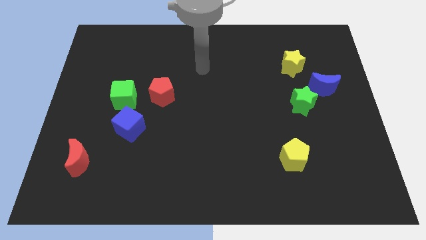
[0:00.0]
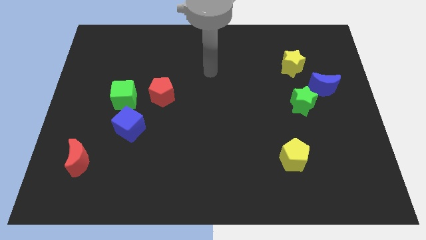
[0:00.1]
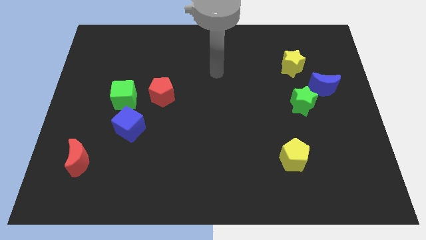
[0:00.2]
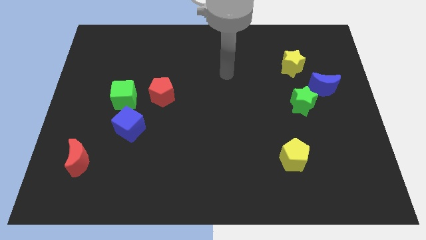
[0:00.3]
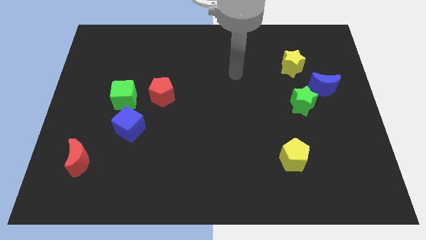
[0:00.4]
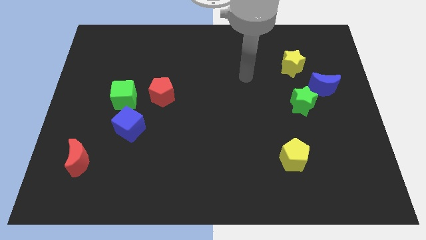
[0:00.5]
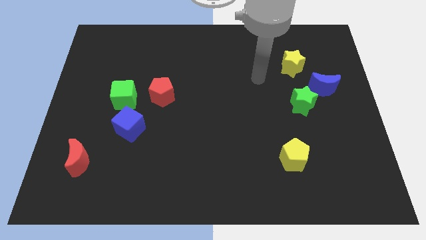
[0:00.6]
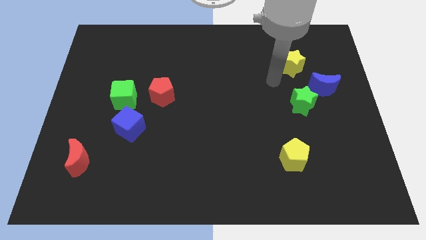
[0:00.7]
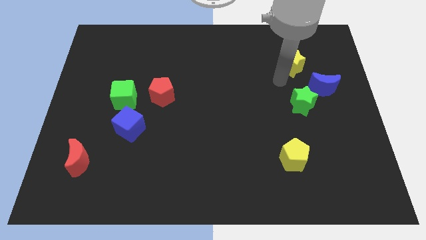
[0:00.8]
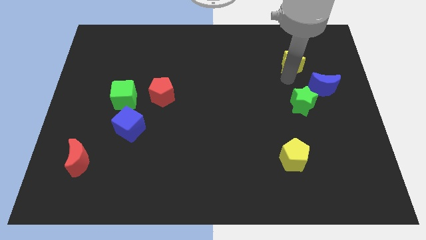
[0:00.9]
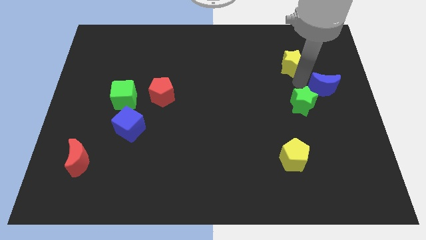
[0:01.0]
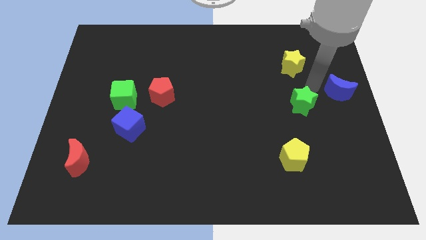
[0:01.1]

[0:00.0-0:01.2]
move the green star away from the blue moon

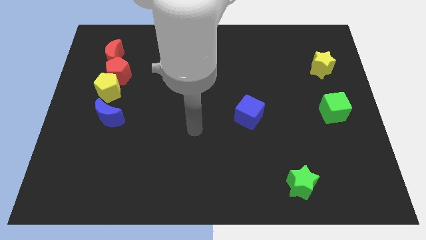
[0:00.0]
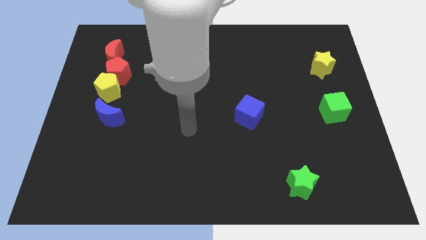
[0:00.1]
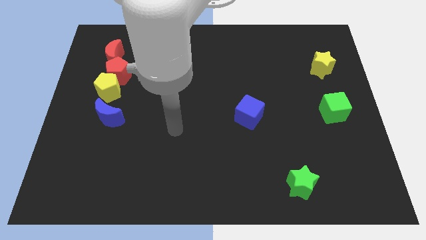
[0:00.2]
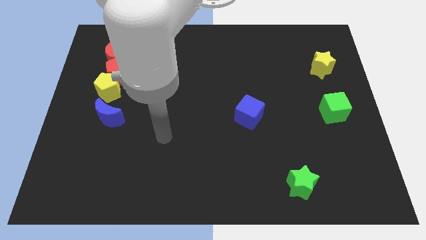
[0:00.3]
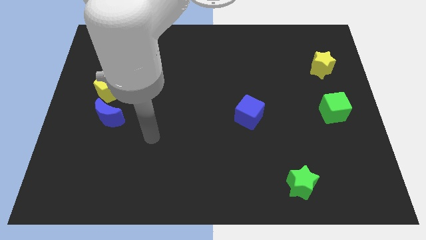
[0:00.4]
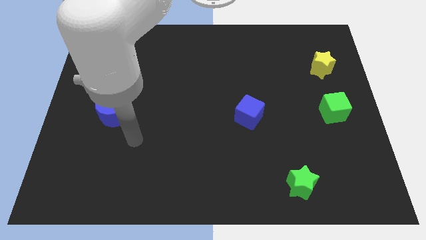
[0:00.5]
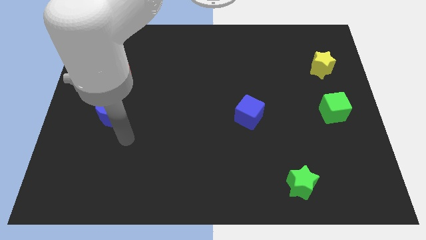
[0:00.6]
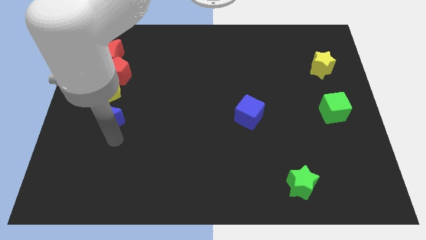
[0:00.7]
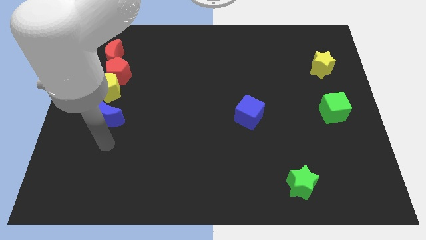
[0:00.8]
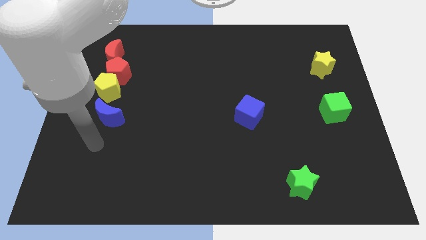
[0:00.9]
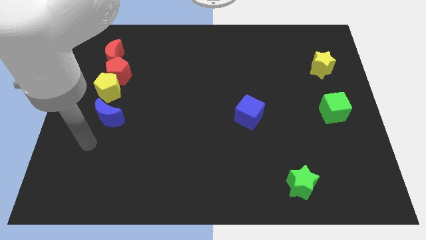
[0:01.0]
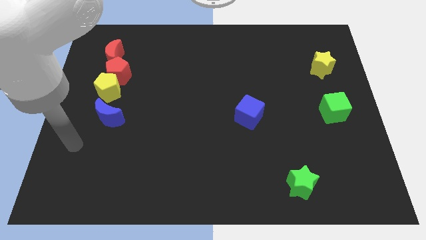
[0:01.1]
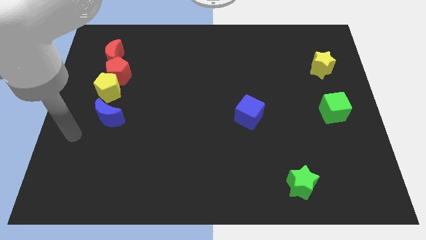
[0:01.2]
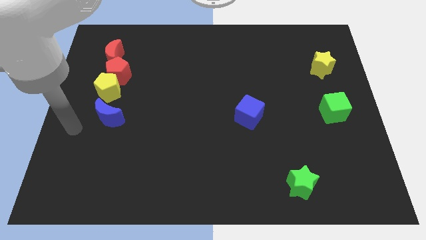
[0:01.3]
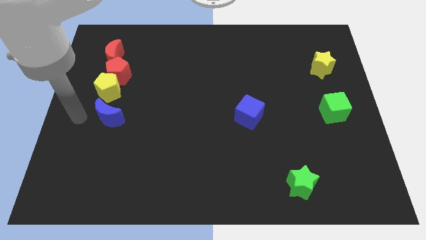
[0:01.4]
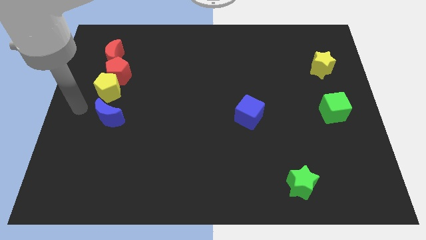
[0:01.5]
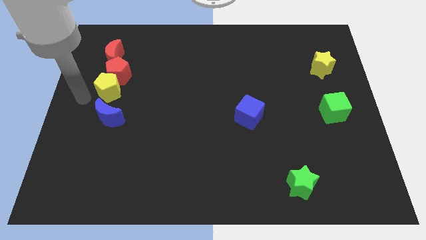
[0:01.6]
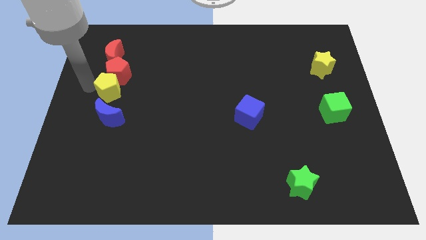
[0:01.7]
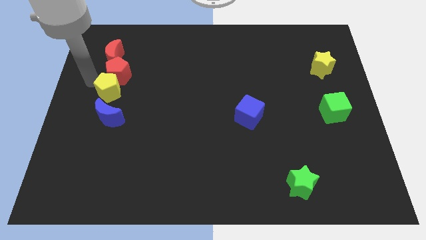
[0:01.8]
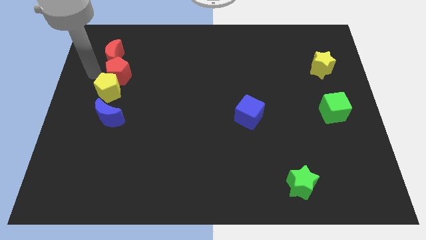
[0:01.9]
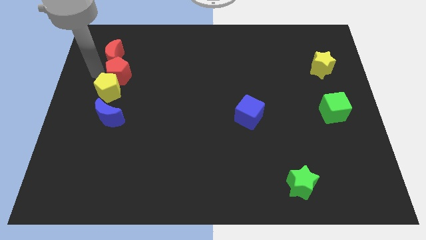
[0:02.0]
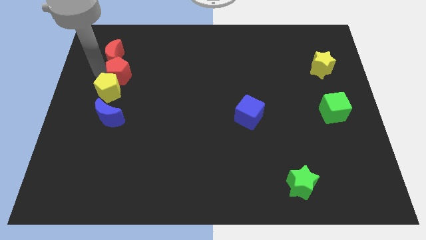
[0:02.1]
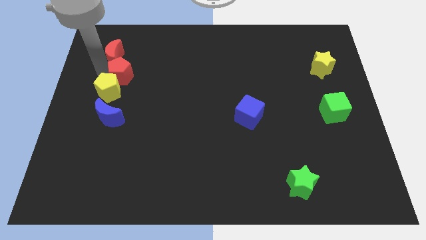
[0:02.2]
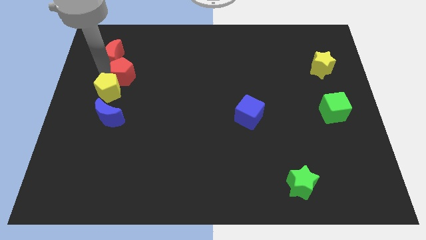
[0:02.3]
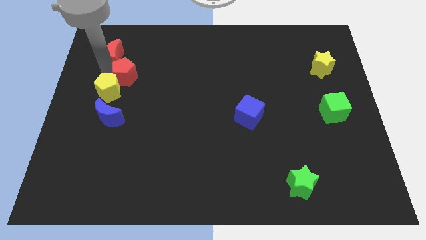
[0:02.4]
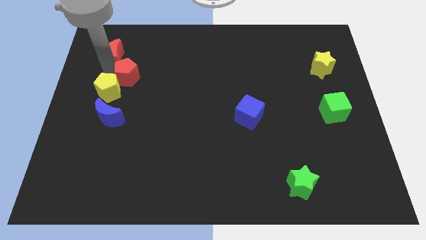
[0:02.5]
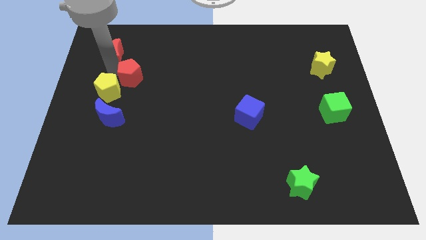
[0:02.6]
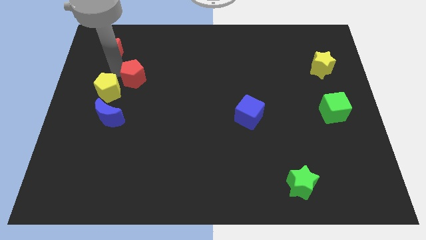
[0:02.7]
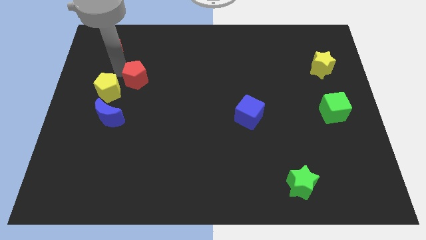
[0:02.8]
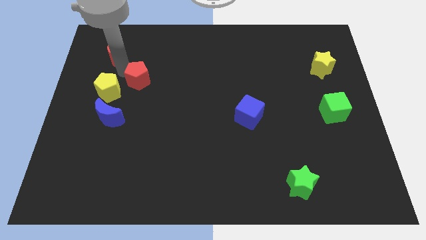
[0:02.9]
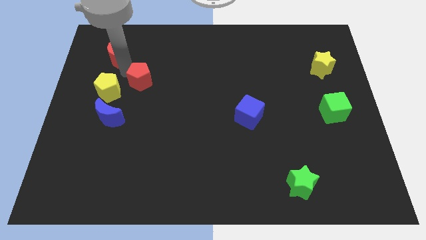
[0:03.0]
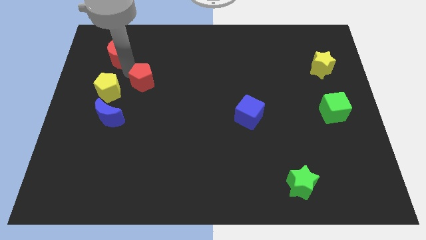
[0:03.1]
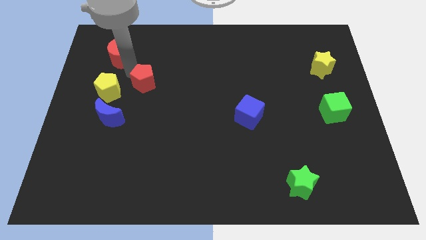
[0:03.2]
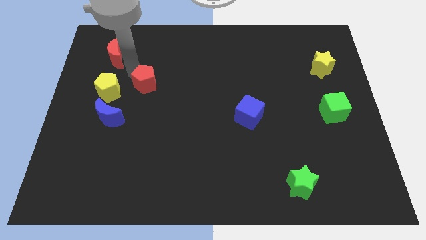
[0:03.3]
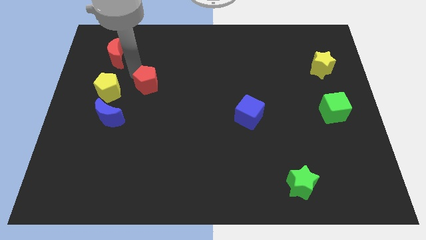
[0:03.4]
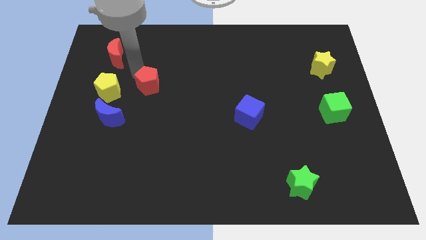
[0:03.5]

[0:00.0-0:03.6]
pull the red pentagon apart from the yellow pentagon and red moon

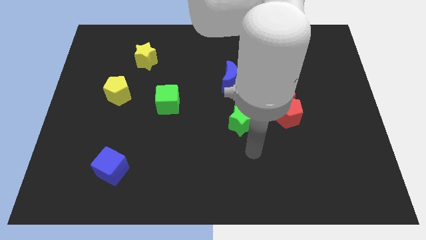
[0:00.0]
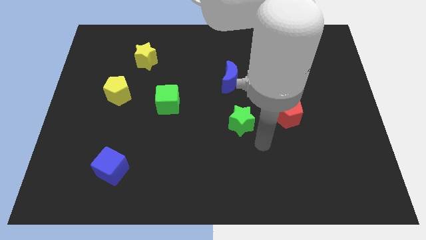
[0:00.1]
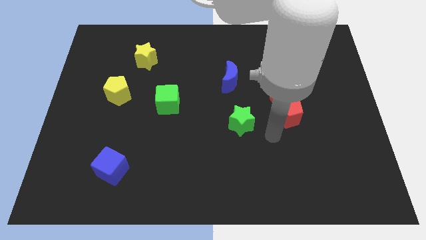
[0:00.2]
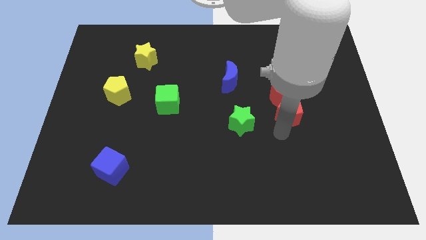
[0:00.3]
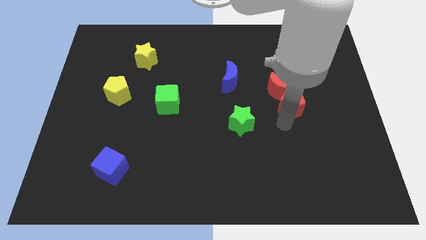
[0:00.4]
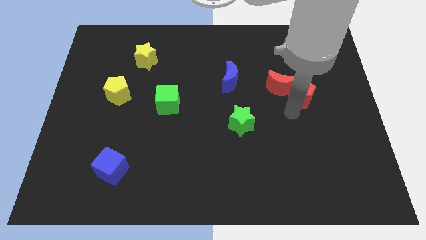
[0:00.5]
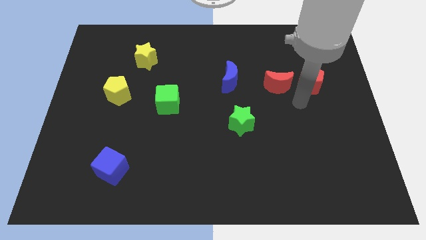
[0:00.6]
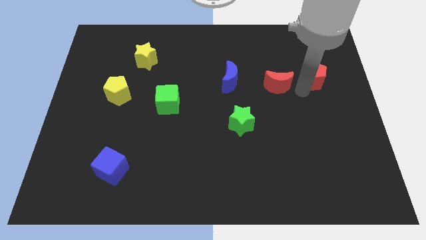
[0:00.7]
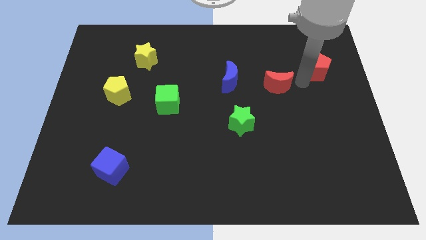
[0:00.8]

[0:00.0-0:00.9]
separate the red moon from the red pentagon

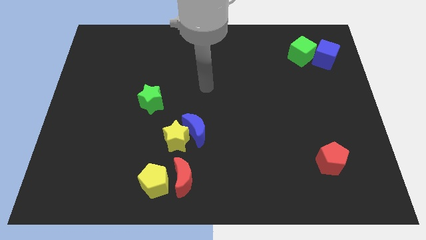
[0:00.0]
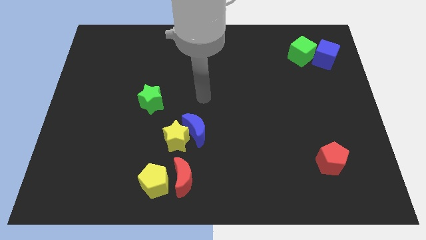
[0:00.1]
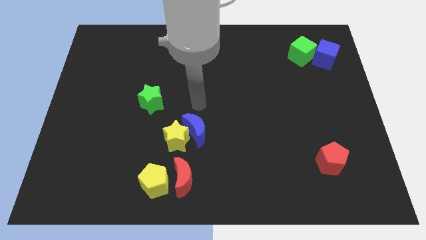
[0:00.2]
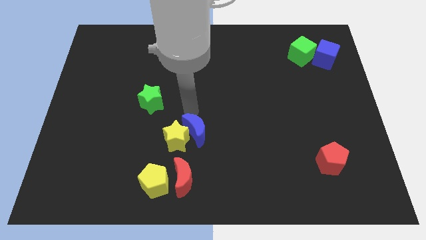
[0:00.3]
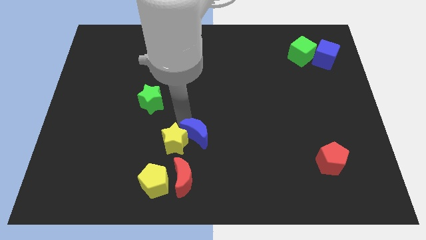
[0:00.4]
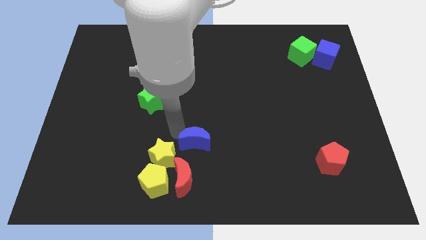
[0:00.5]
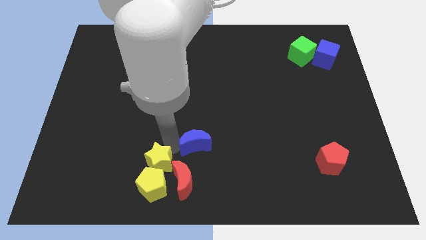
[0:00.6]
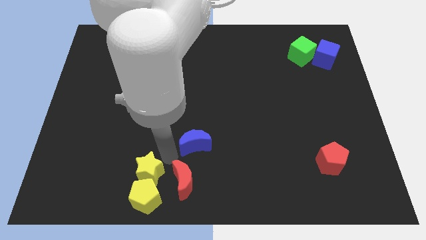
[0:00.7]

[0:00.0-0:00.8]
separate the blue moon from the yellow star

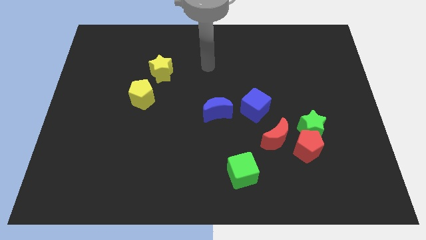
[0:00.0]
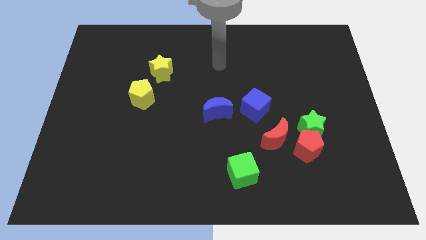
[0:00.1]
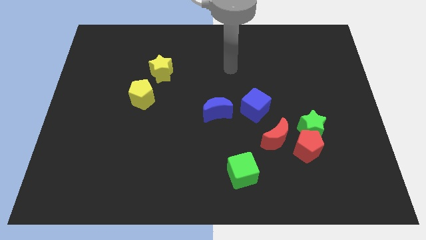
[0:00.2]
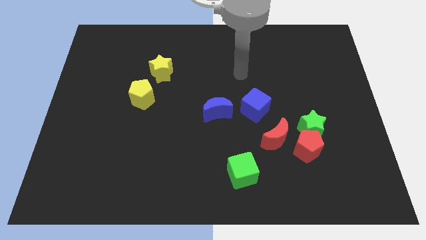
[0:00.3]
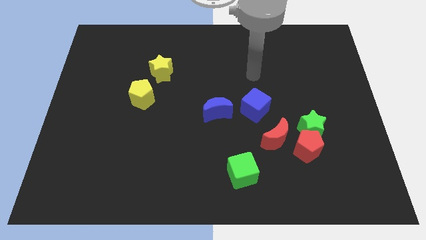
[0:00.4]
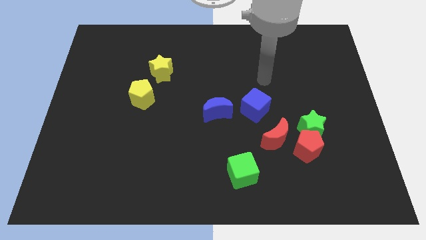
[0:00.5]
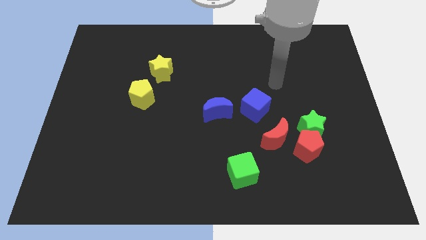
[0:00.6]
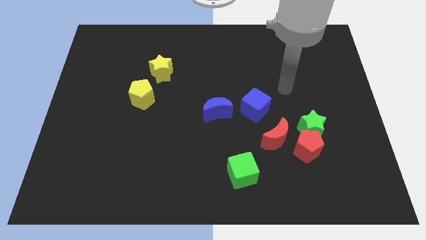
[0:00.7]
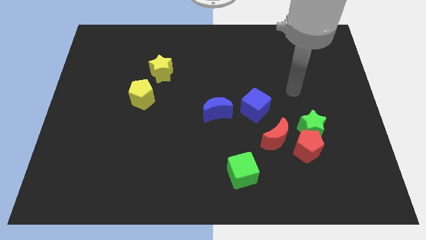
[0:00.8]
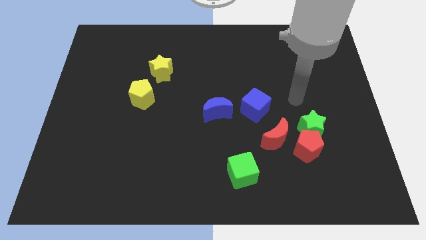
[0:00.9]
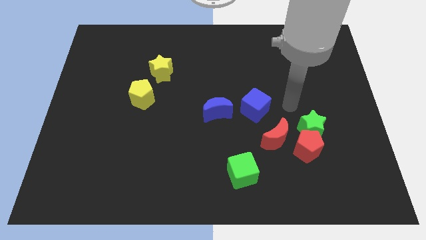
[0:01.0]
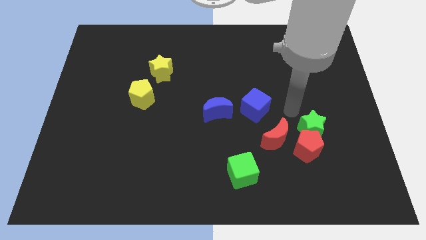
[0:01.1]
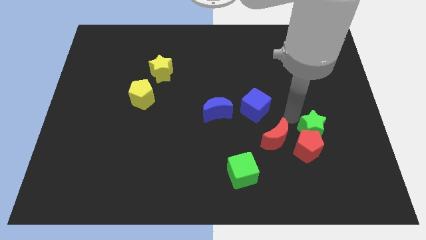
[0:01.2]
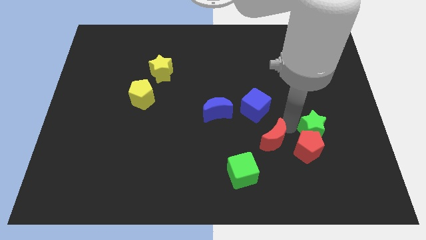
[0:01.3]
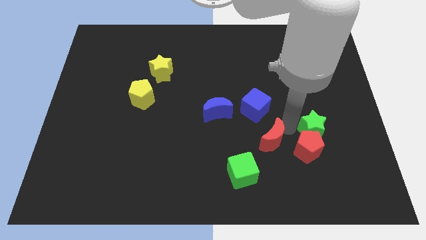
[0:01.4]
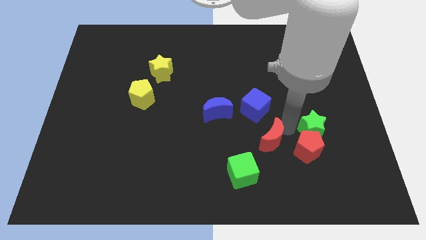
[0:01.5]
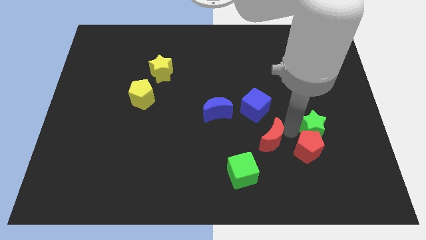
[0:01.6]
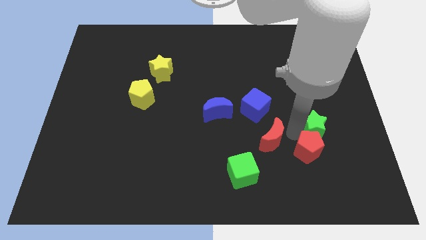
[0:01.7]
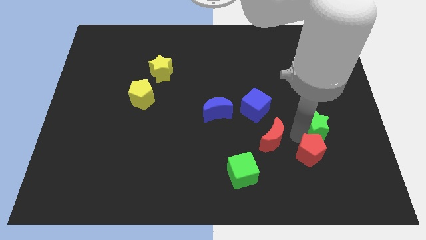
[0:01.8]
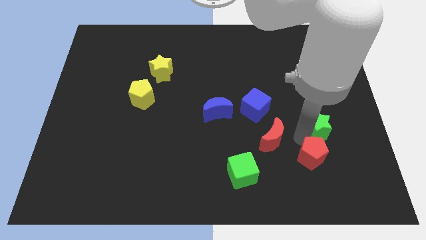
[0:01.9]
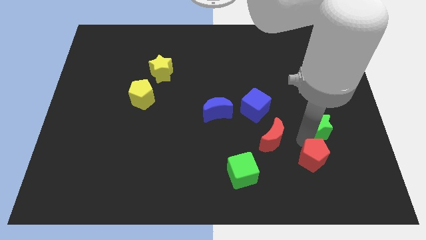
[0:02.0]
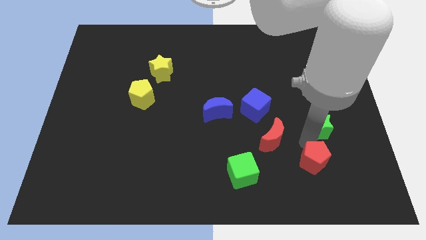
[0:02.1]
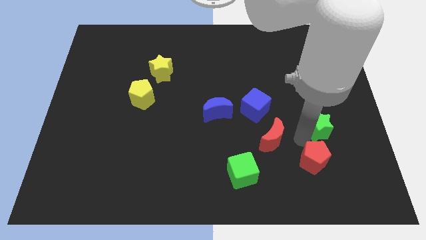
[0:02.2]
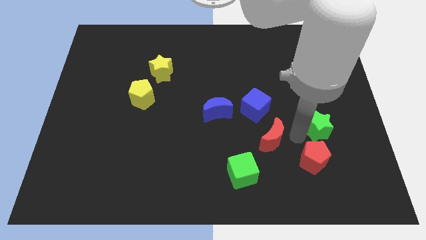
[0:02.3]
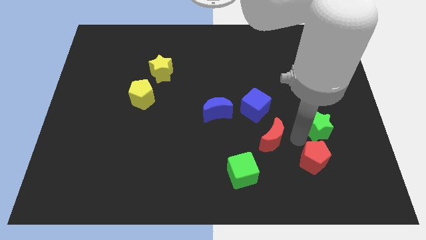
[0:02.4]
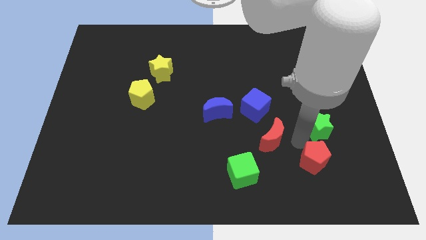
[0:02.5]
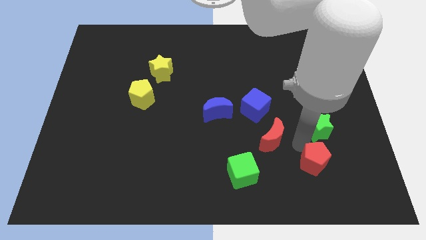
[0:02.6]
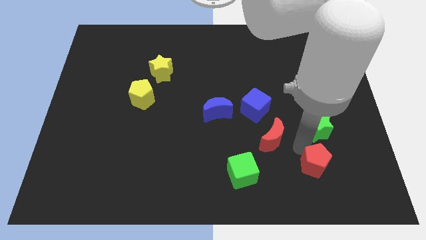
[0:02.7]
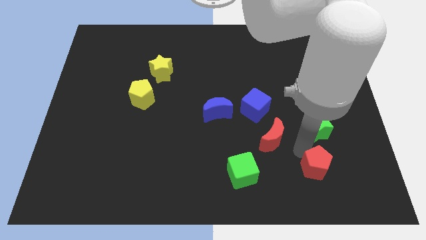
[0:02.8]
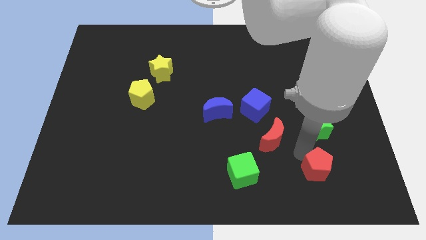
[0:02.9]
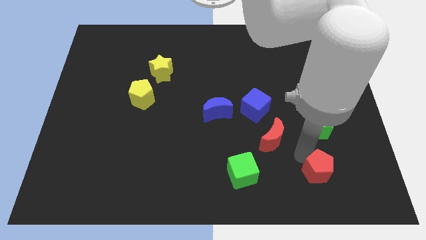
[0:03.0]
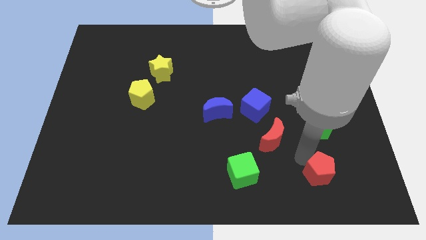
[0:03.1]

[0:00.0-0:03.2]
move the red pentagon away from the green star and red moon
